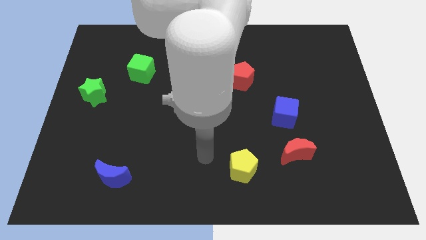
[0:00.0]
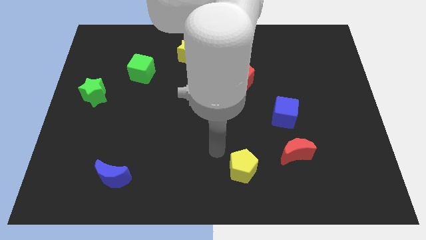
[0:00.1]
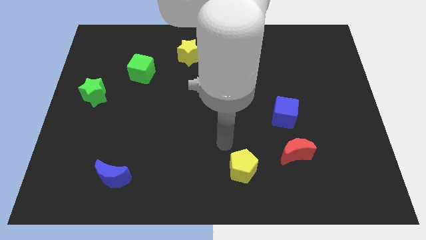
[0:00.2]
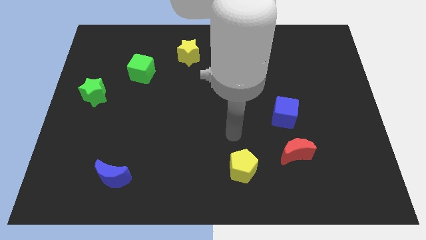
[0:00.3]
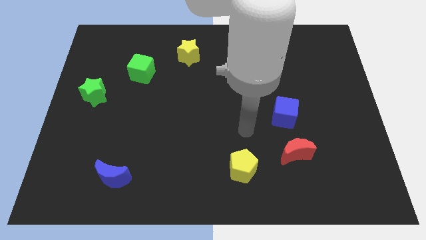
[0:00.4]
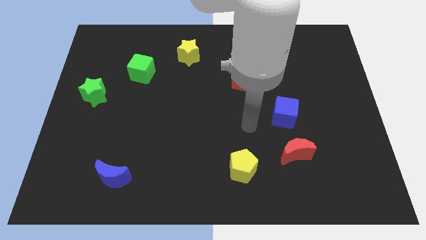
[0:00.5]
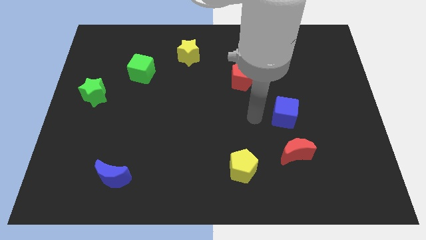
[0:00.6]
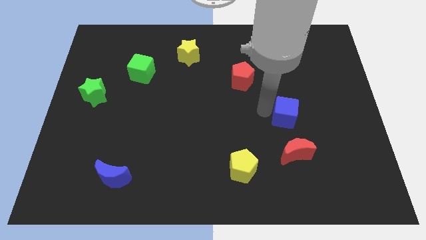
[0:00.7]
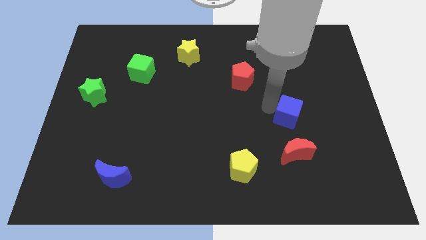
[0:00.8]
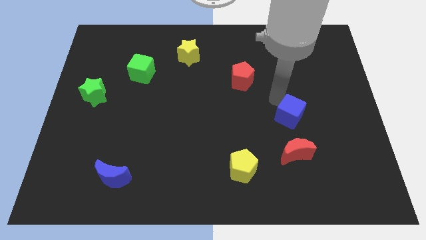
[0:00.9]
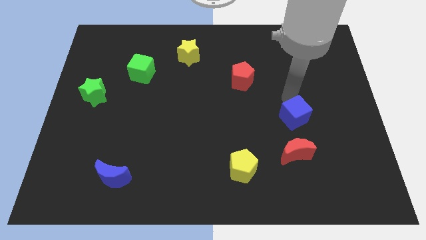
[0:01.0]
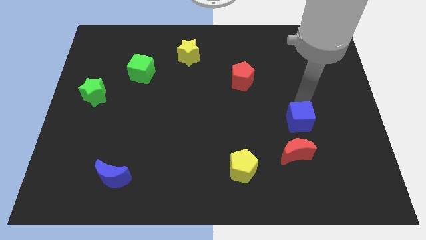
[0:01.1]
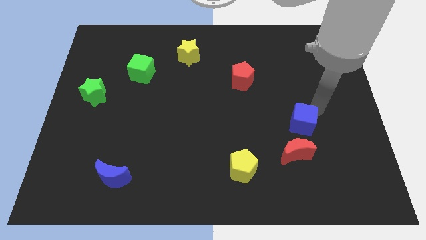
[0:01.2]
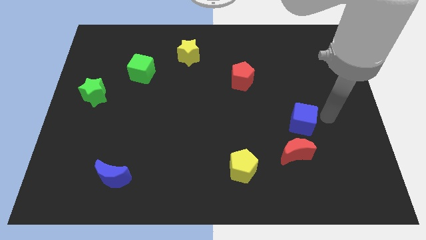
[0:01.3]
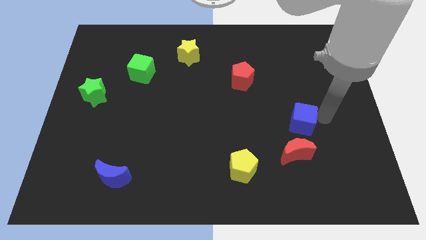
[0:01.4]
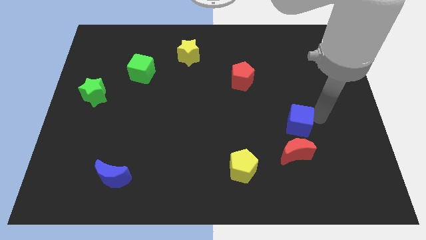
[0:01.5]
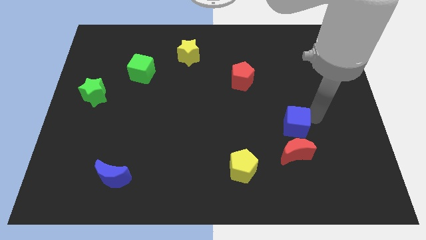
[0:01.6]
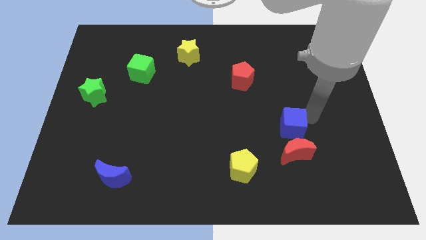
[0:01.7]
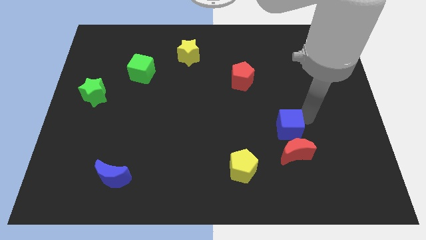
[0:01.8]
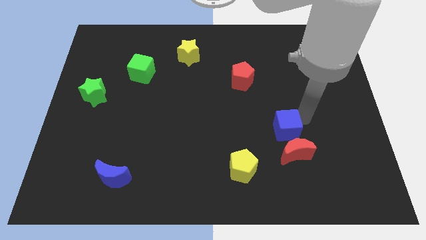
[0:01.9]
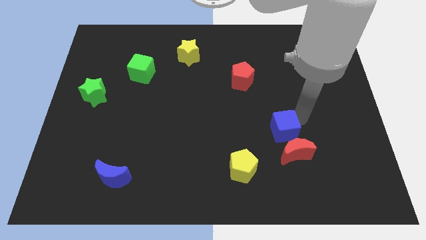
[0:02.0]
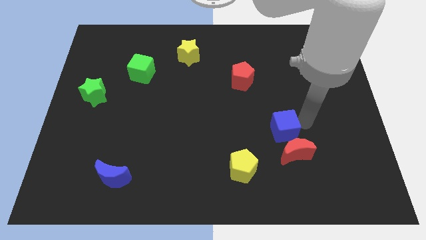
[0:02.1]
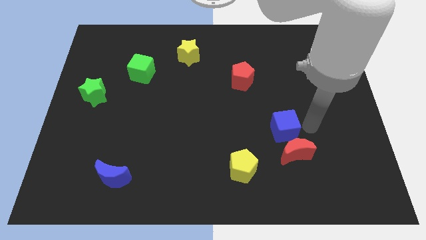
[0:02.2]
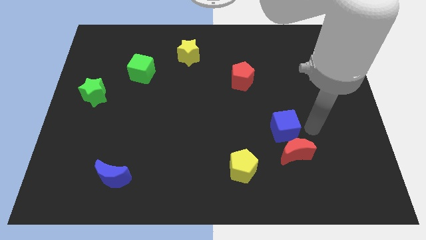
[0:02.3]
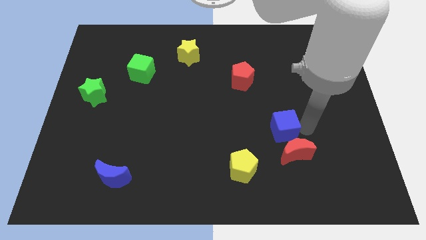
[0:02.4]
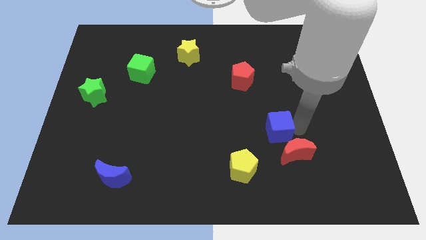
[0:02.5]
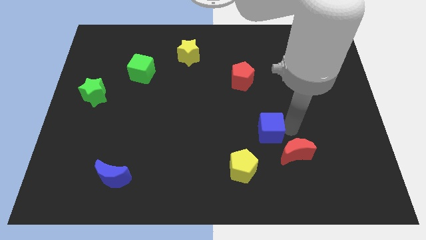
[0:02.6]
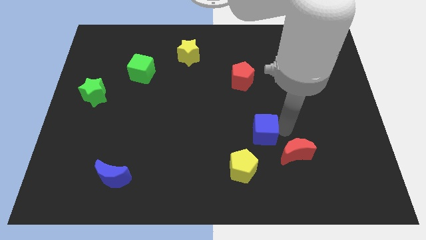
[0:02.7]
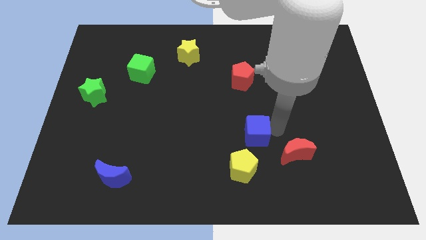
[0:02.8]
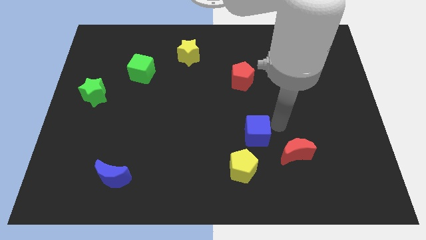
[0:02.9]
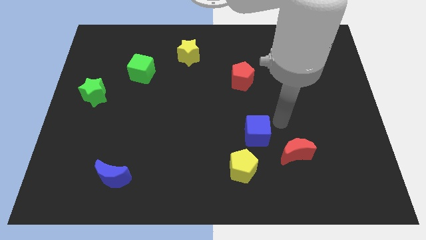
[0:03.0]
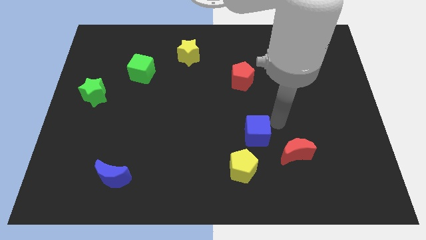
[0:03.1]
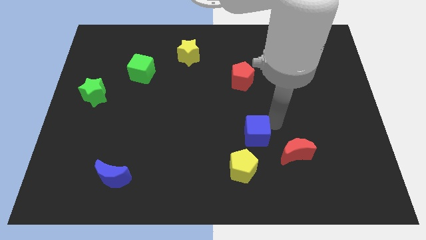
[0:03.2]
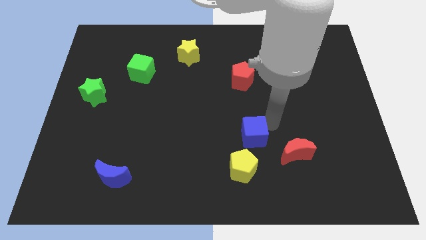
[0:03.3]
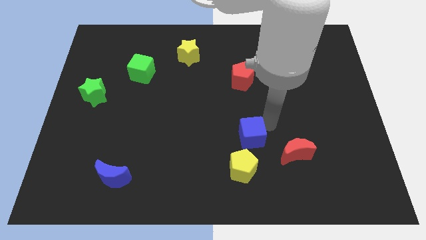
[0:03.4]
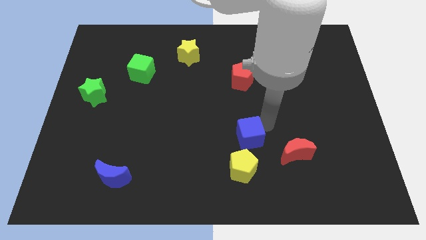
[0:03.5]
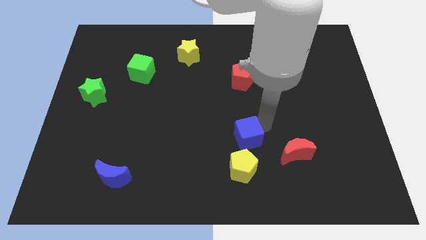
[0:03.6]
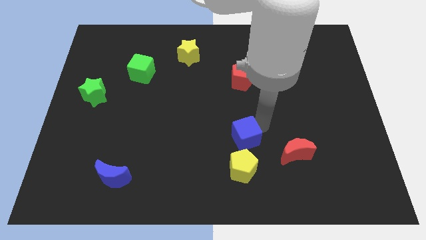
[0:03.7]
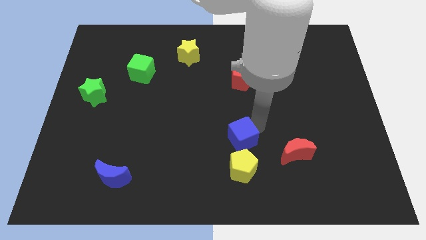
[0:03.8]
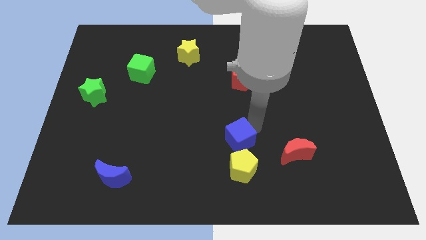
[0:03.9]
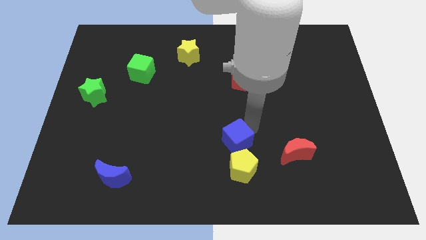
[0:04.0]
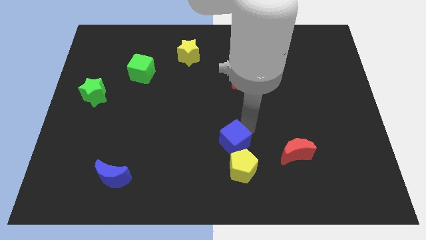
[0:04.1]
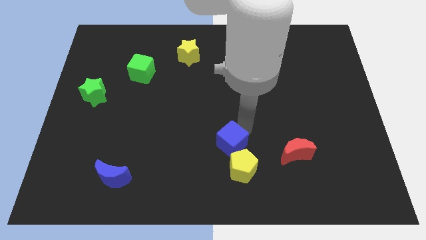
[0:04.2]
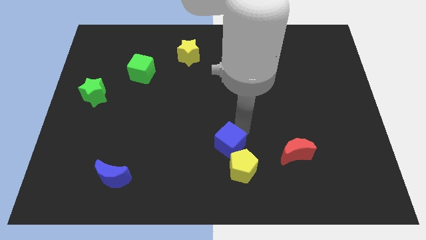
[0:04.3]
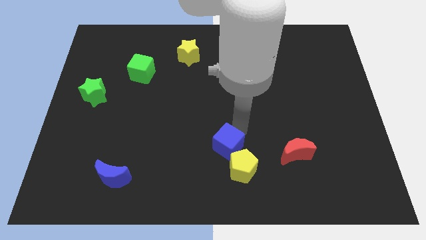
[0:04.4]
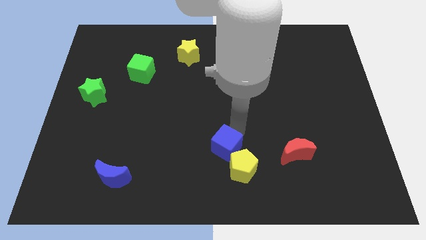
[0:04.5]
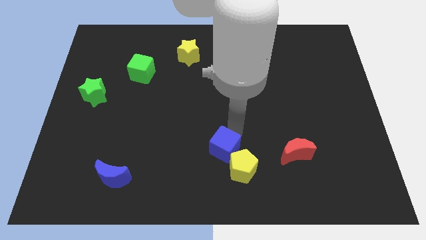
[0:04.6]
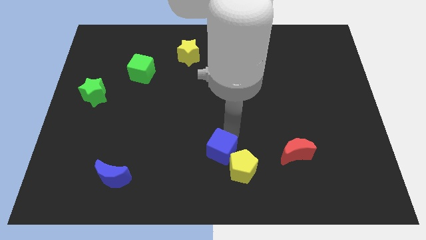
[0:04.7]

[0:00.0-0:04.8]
move the blue cube to the left of the yellow pentagon

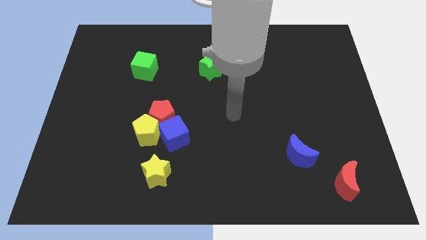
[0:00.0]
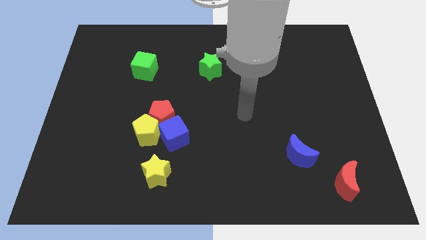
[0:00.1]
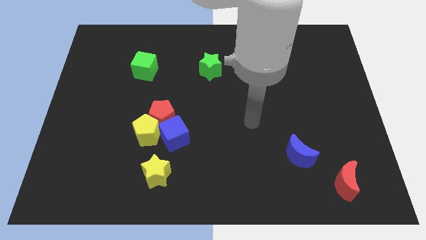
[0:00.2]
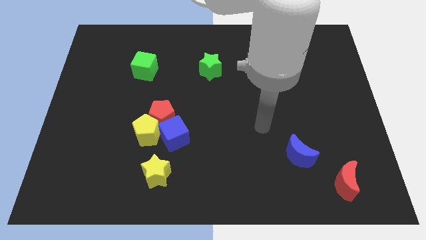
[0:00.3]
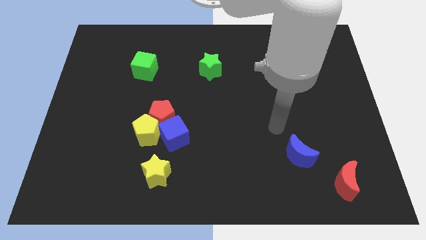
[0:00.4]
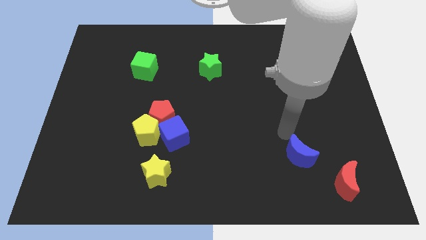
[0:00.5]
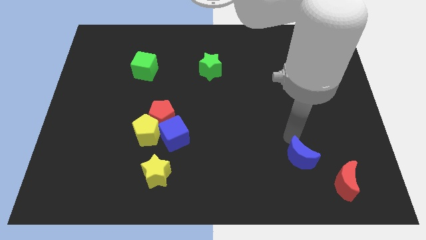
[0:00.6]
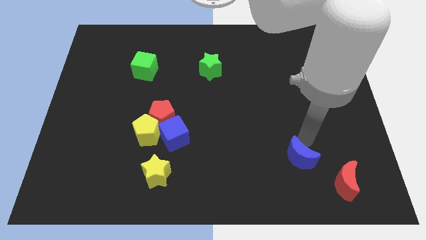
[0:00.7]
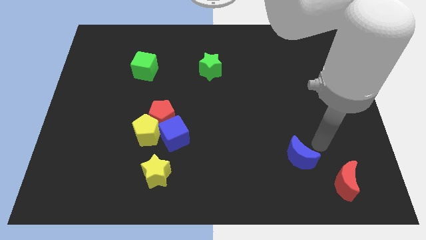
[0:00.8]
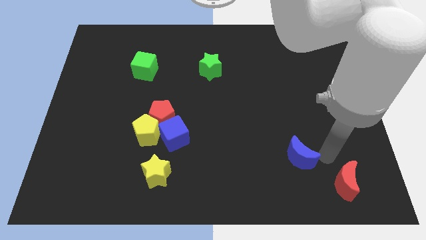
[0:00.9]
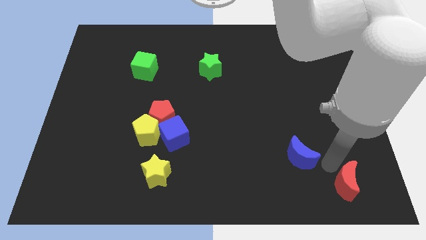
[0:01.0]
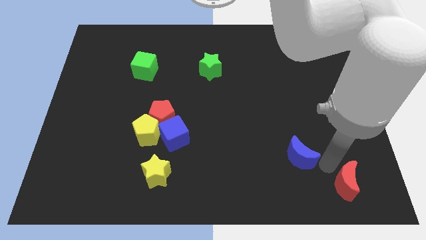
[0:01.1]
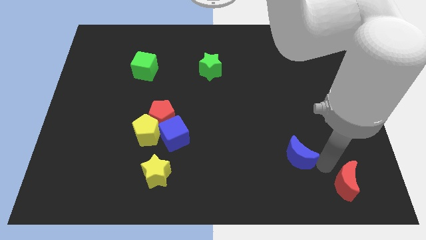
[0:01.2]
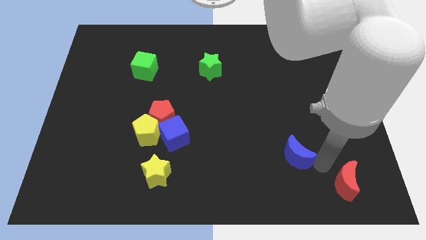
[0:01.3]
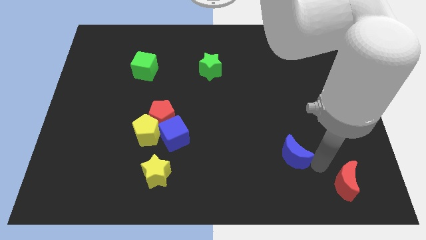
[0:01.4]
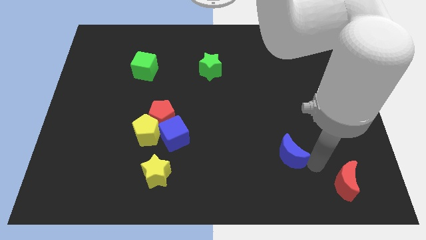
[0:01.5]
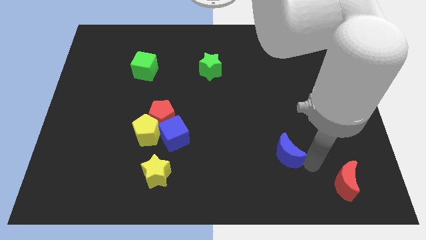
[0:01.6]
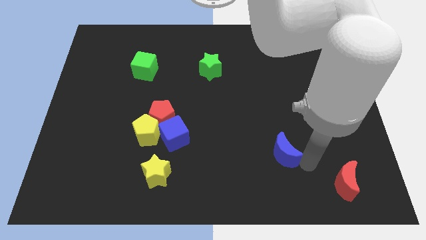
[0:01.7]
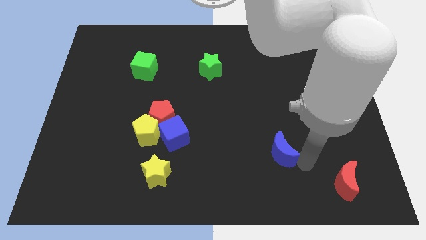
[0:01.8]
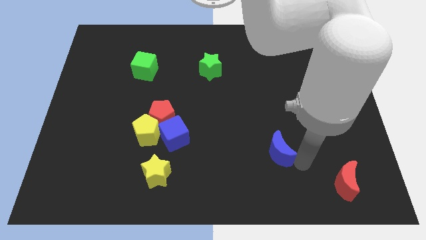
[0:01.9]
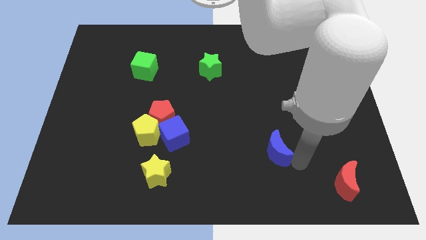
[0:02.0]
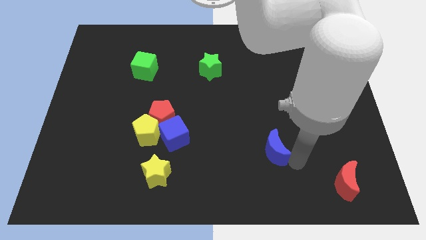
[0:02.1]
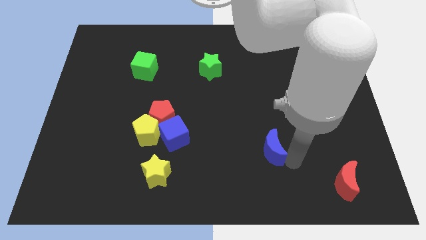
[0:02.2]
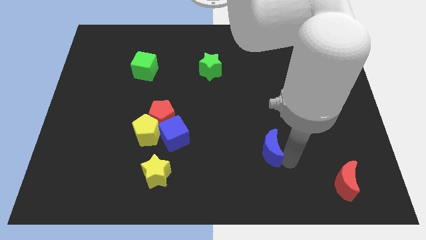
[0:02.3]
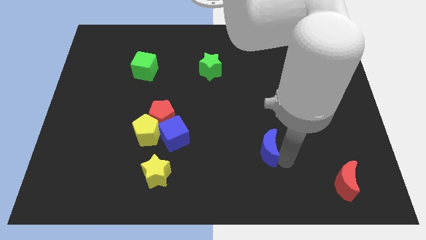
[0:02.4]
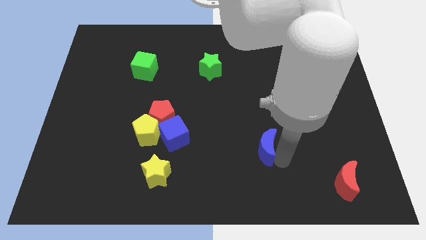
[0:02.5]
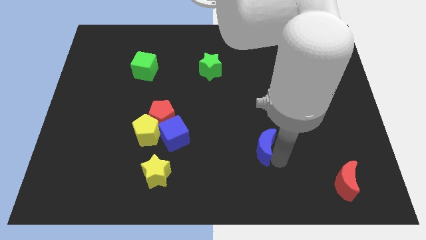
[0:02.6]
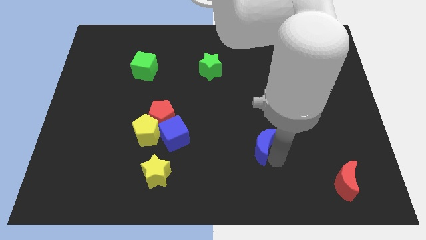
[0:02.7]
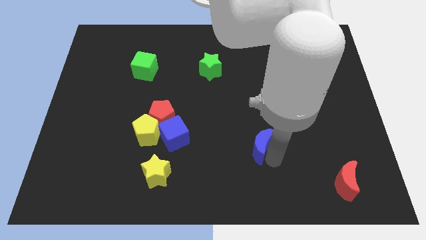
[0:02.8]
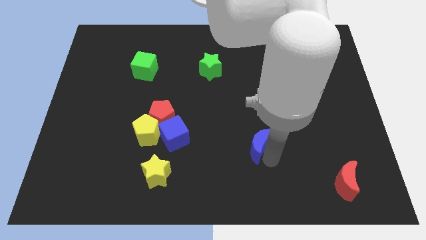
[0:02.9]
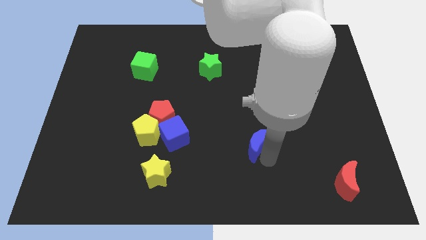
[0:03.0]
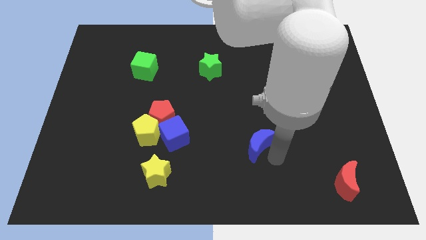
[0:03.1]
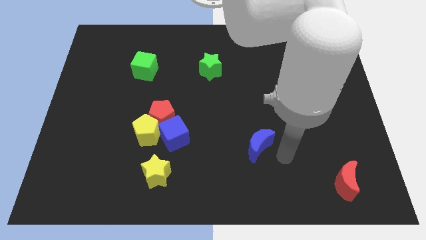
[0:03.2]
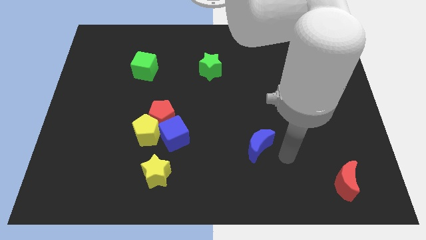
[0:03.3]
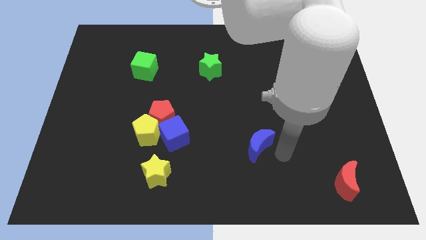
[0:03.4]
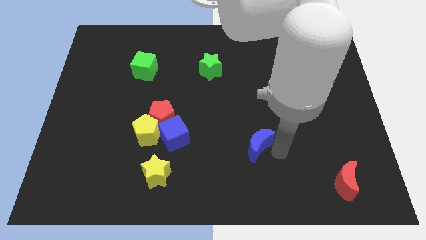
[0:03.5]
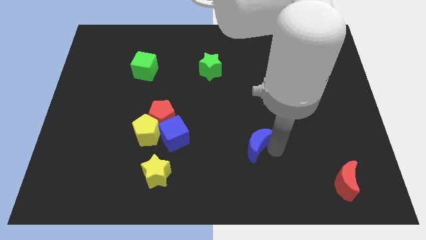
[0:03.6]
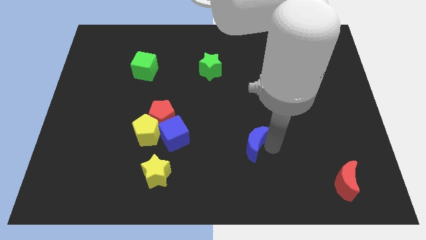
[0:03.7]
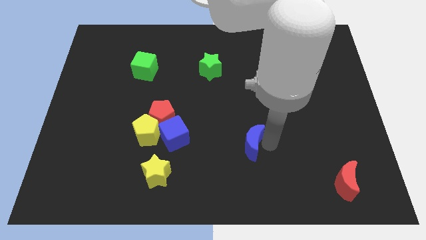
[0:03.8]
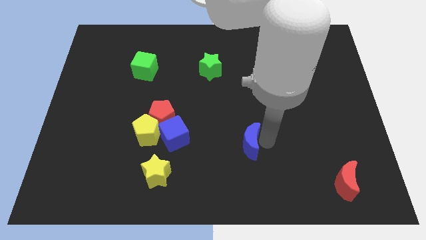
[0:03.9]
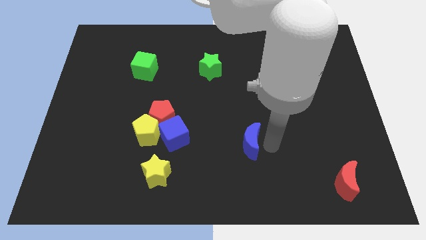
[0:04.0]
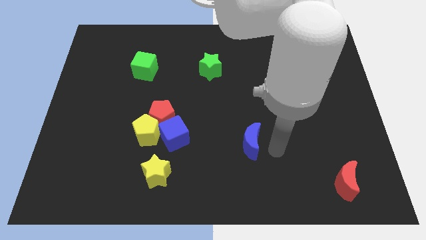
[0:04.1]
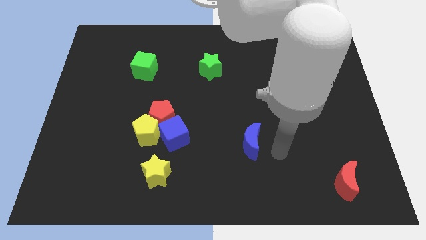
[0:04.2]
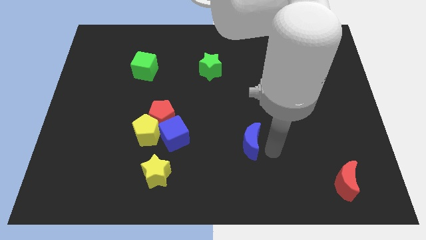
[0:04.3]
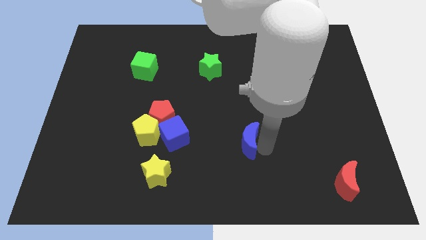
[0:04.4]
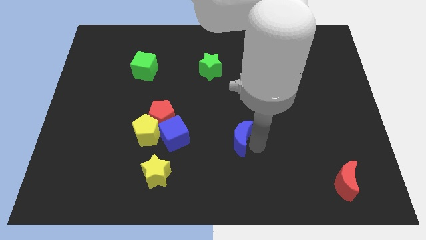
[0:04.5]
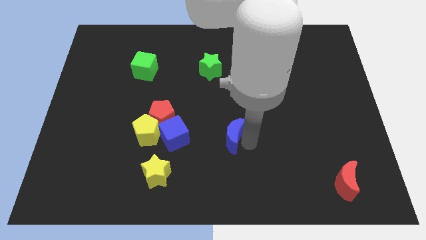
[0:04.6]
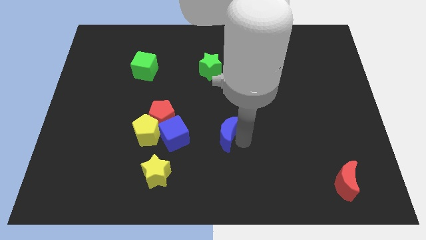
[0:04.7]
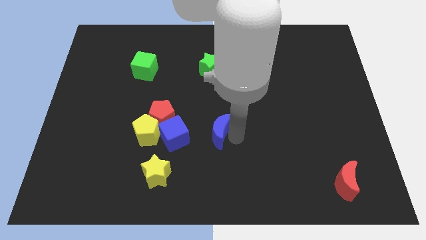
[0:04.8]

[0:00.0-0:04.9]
move the blue moon to the right of the yellow pentagon
